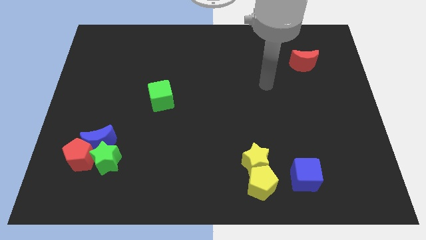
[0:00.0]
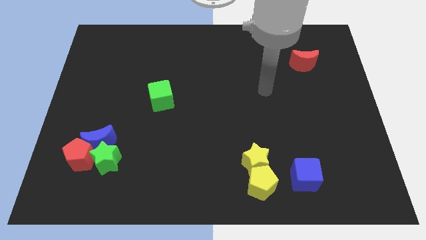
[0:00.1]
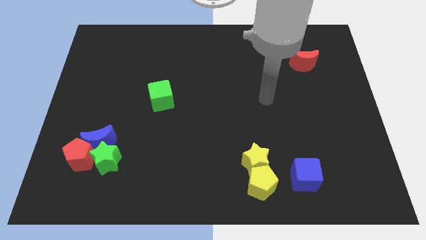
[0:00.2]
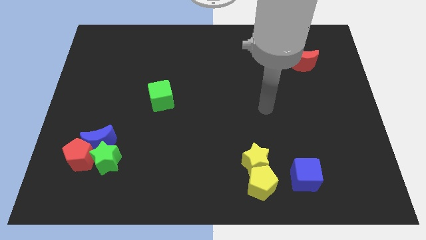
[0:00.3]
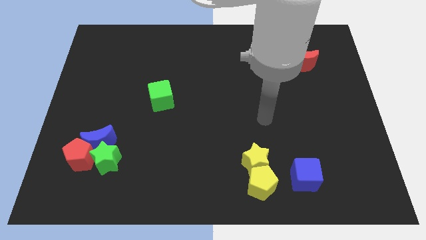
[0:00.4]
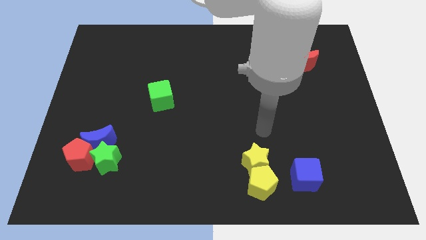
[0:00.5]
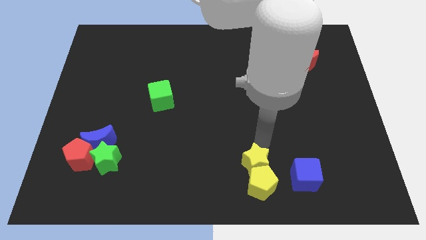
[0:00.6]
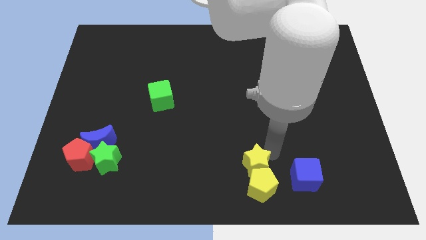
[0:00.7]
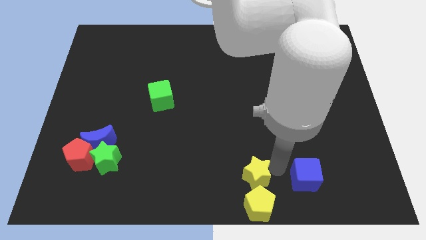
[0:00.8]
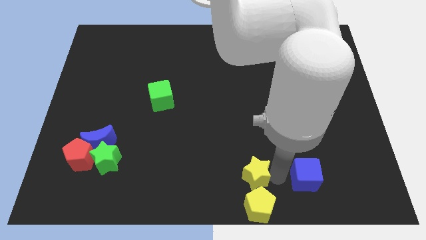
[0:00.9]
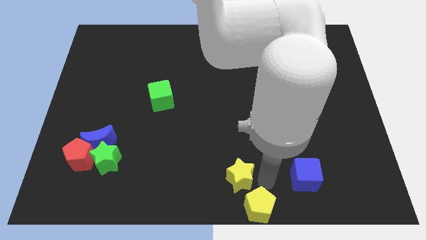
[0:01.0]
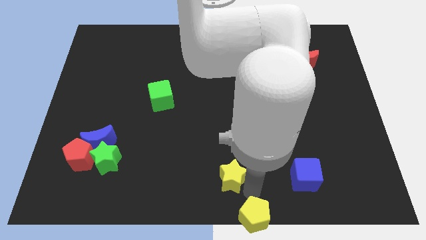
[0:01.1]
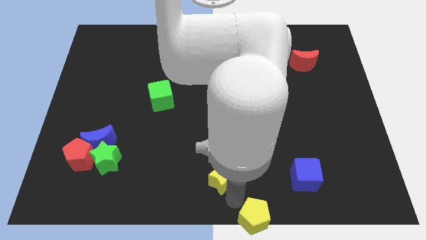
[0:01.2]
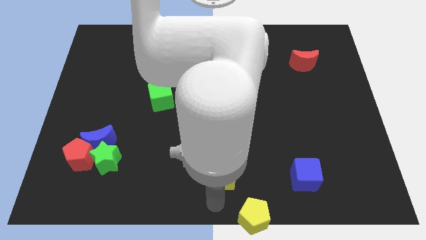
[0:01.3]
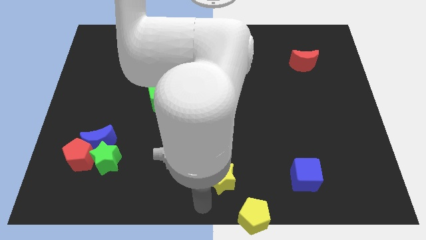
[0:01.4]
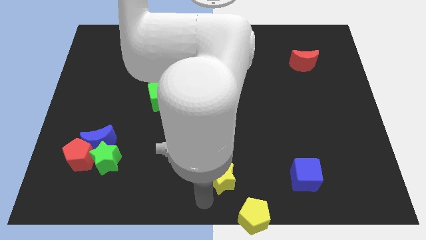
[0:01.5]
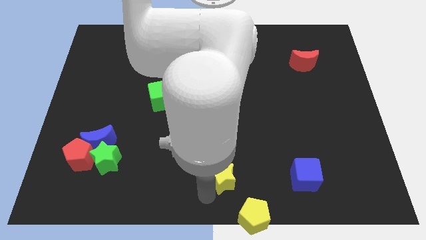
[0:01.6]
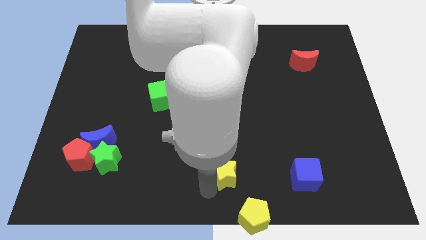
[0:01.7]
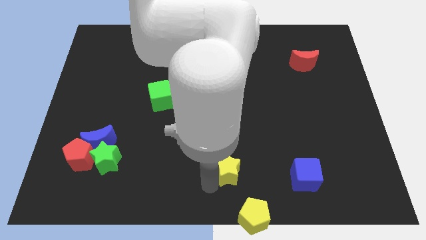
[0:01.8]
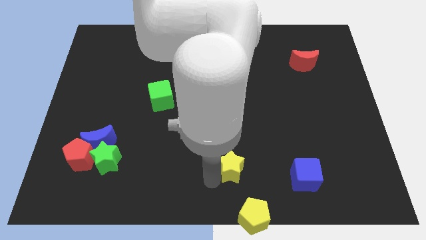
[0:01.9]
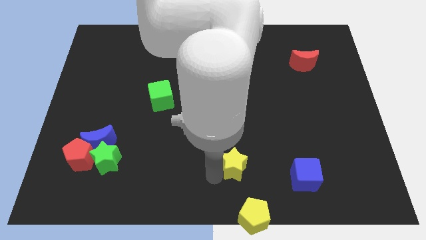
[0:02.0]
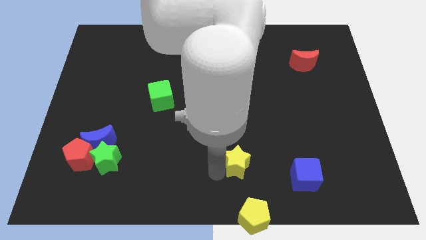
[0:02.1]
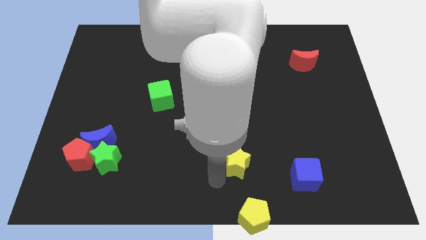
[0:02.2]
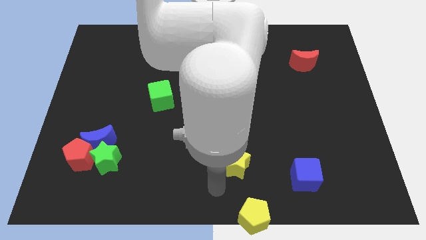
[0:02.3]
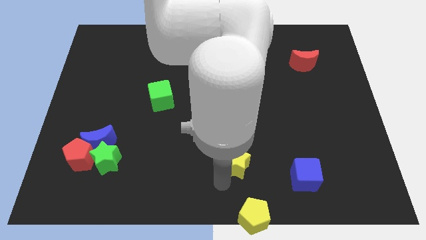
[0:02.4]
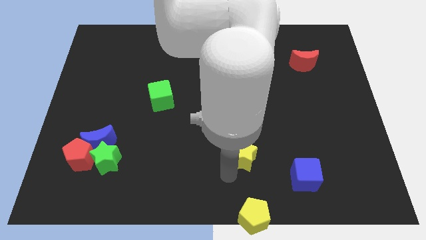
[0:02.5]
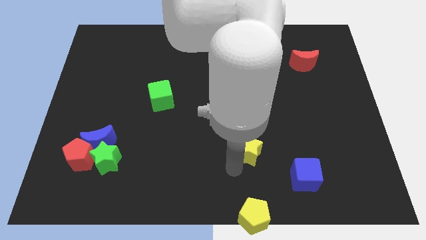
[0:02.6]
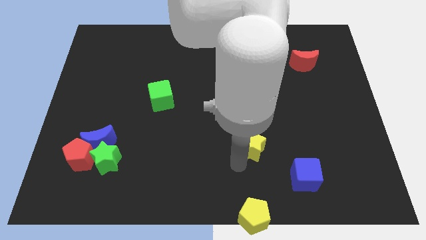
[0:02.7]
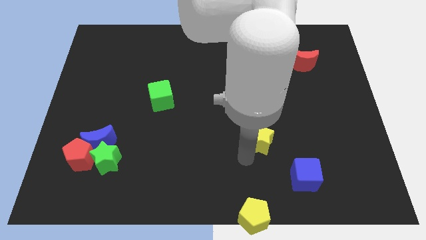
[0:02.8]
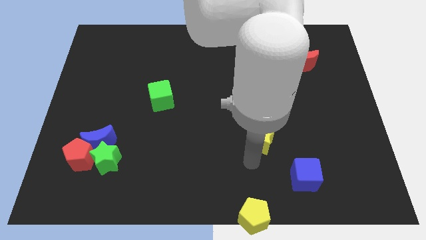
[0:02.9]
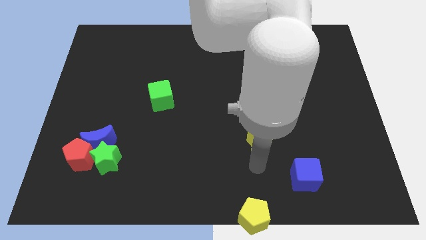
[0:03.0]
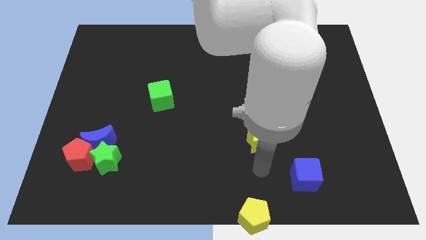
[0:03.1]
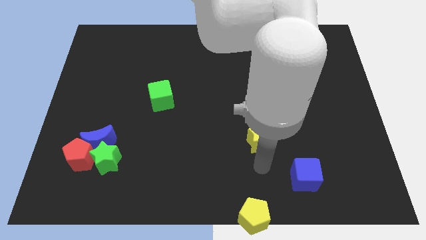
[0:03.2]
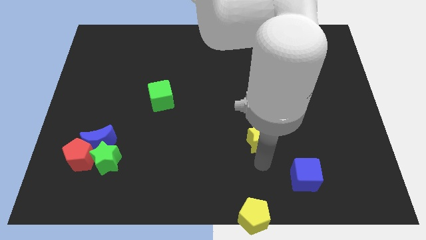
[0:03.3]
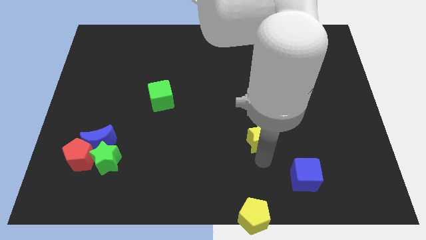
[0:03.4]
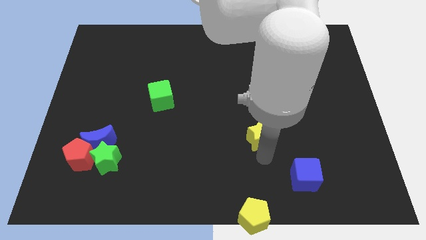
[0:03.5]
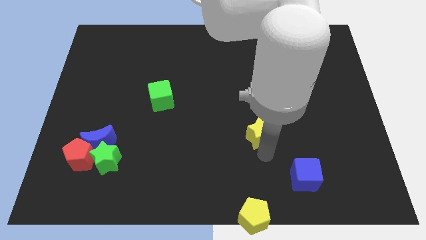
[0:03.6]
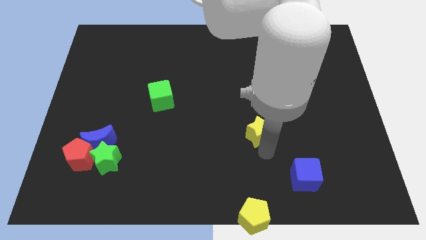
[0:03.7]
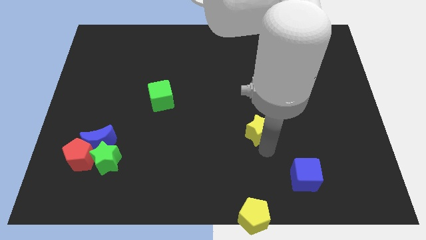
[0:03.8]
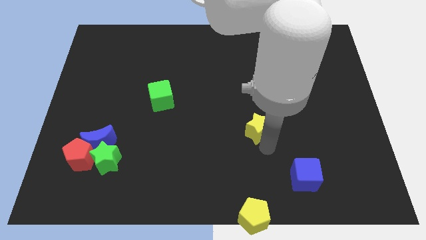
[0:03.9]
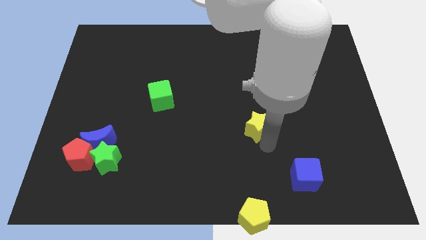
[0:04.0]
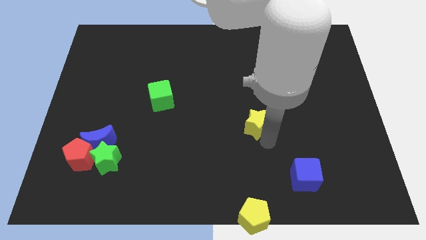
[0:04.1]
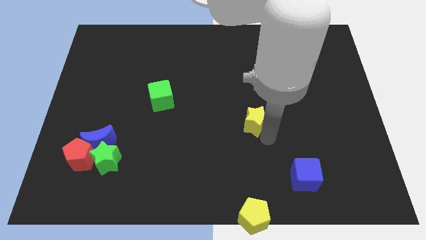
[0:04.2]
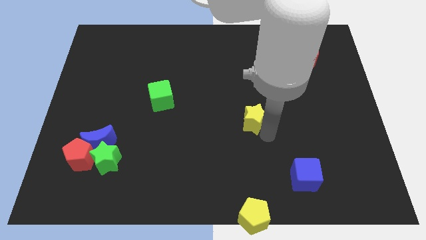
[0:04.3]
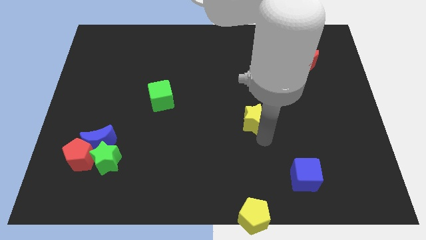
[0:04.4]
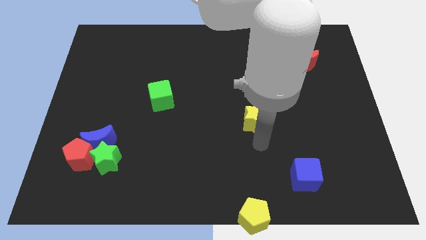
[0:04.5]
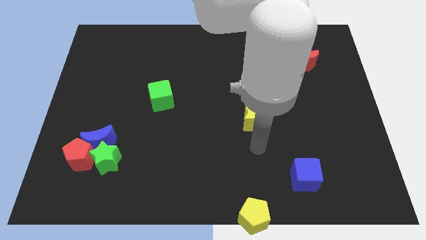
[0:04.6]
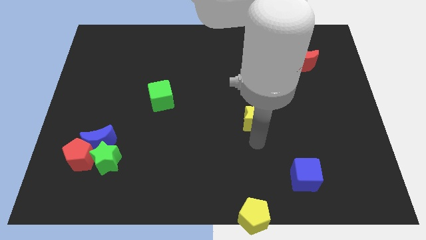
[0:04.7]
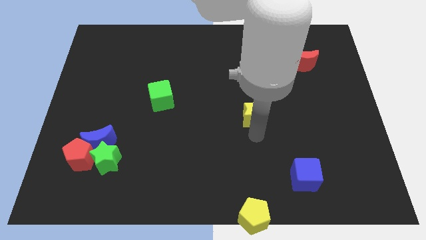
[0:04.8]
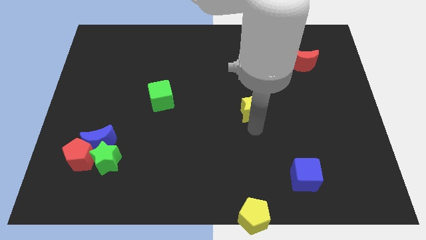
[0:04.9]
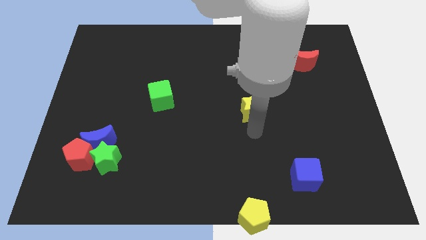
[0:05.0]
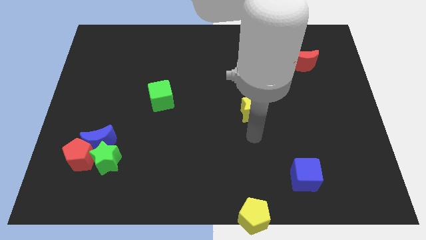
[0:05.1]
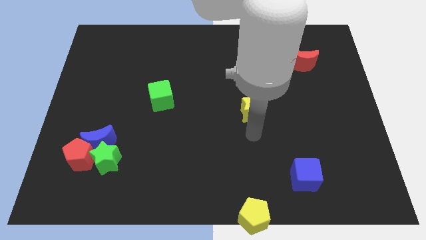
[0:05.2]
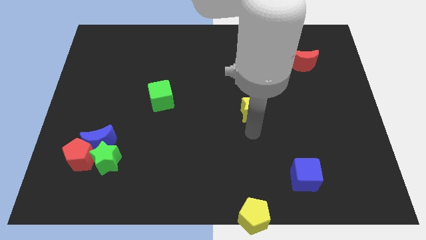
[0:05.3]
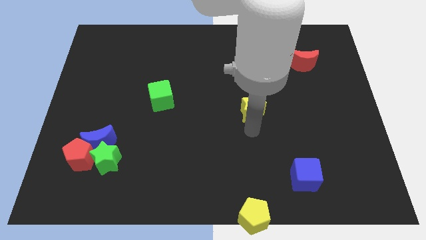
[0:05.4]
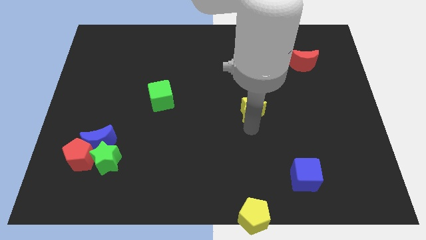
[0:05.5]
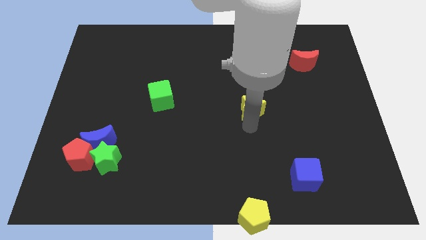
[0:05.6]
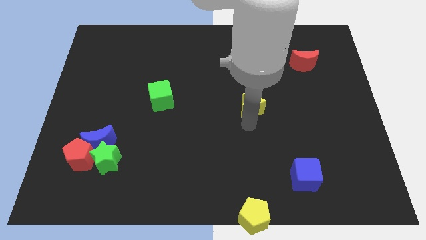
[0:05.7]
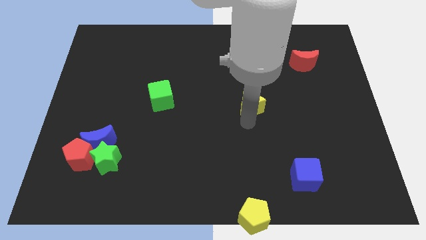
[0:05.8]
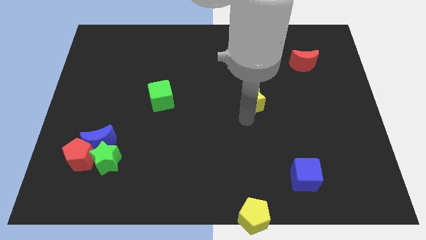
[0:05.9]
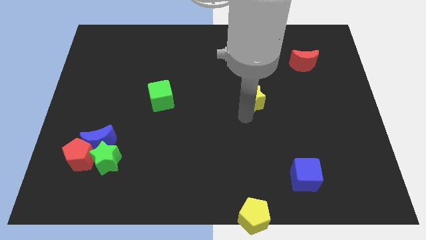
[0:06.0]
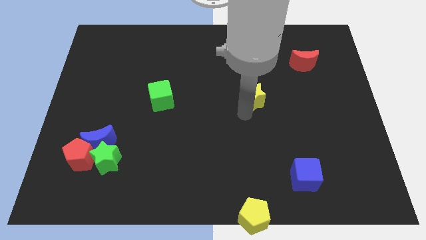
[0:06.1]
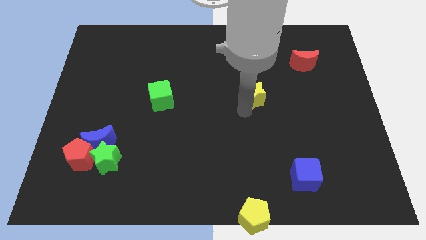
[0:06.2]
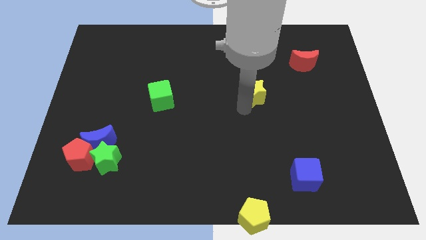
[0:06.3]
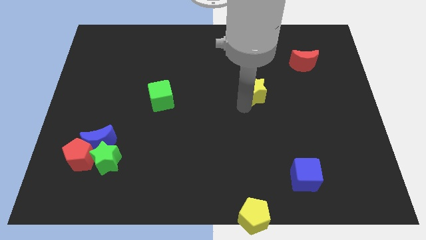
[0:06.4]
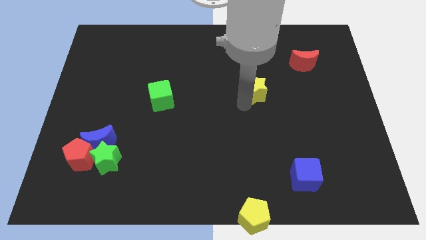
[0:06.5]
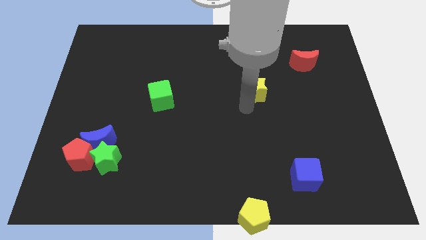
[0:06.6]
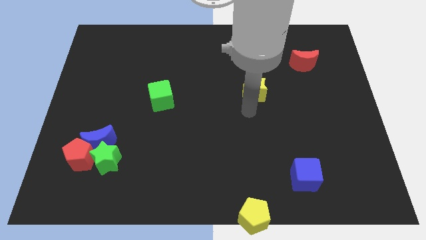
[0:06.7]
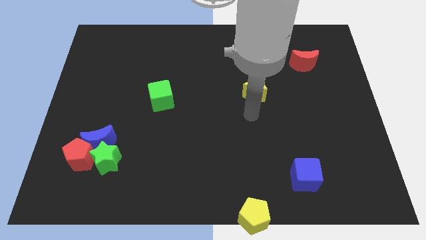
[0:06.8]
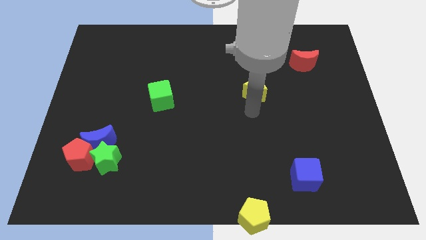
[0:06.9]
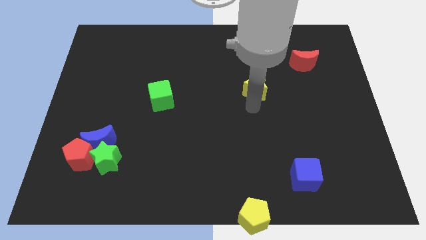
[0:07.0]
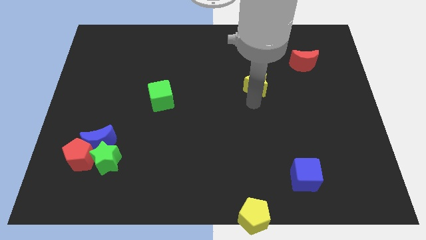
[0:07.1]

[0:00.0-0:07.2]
push the yellow star upwards

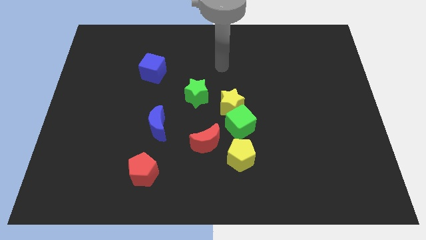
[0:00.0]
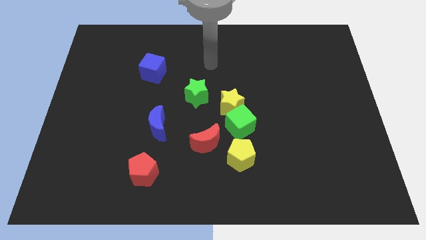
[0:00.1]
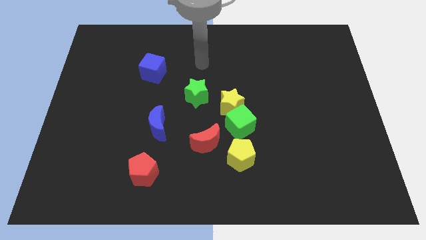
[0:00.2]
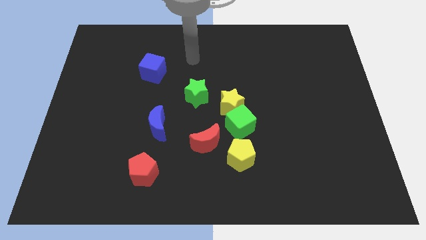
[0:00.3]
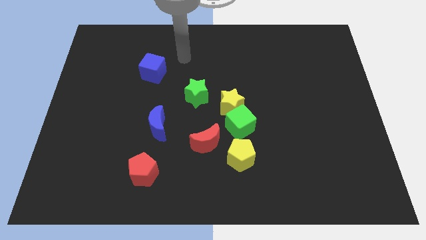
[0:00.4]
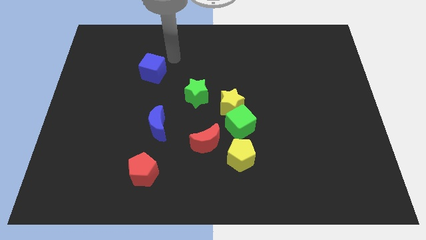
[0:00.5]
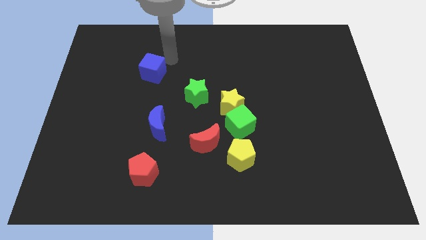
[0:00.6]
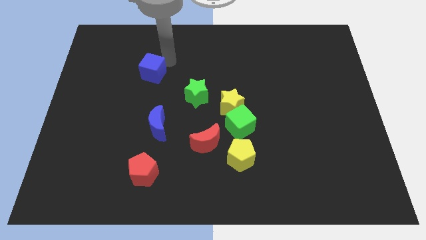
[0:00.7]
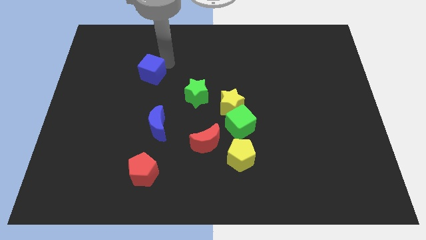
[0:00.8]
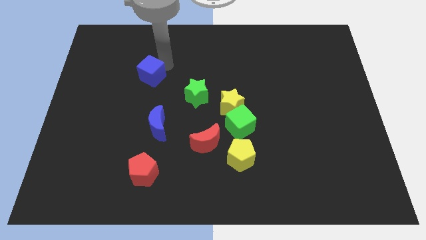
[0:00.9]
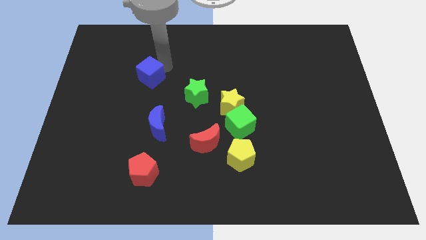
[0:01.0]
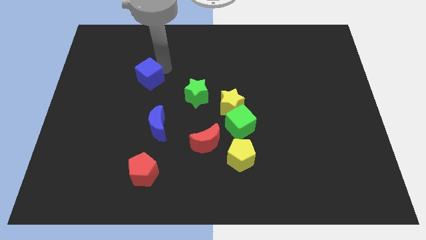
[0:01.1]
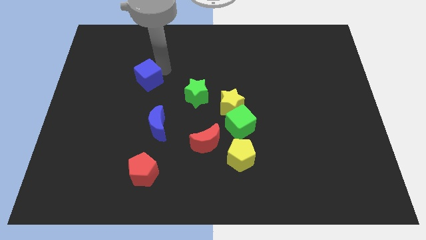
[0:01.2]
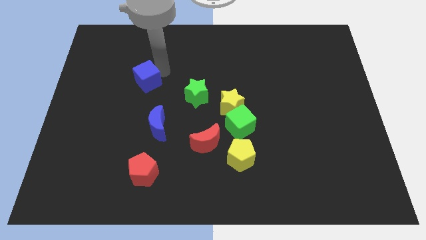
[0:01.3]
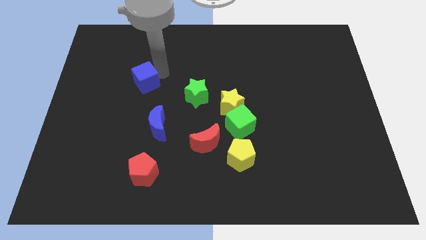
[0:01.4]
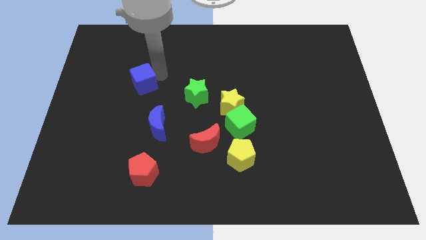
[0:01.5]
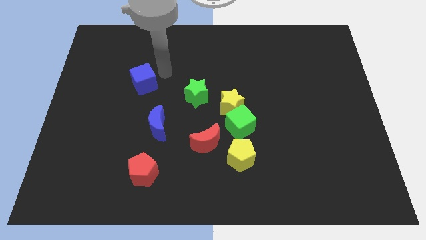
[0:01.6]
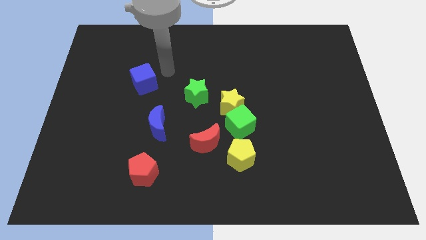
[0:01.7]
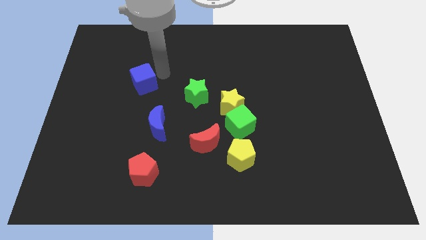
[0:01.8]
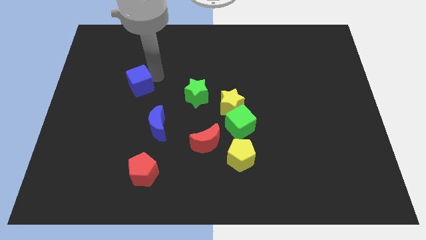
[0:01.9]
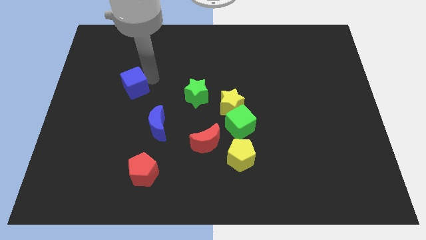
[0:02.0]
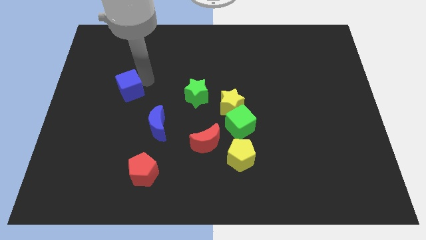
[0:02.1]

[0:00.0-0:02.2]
slightly push the blue cube downwards and left diagonally
